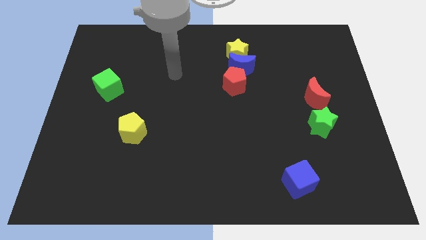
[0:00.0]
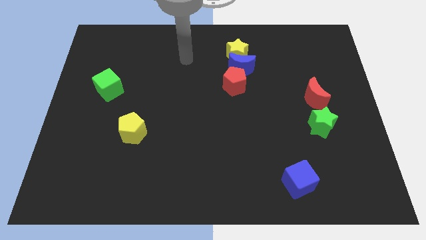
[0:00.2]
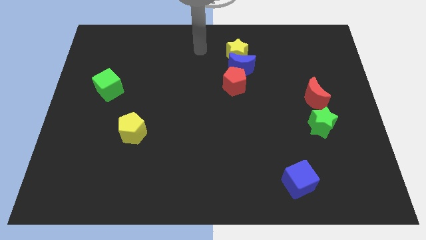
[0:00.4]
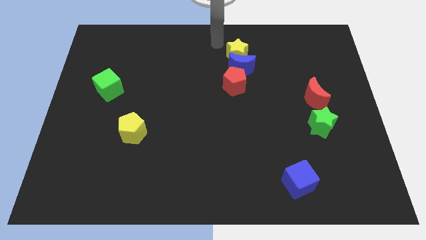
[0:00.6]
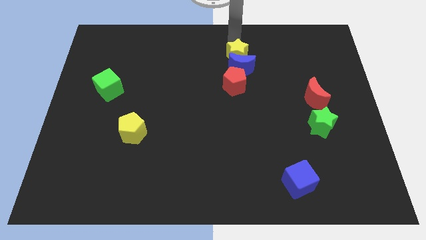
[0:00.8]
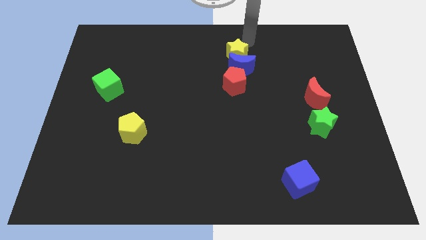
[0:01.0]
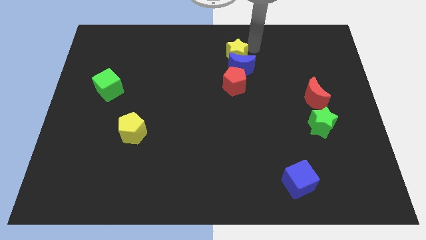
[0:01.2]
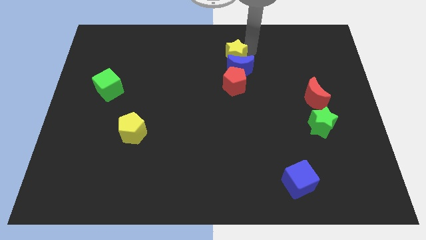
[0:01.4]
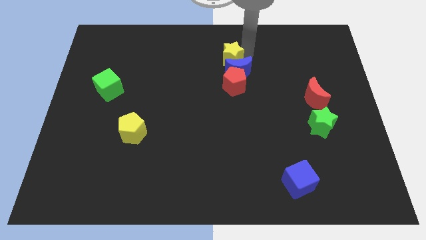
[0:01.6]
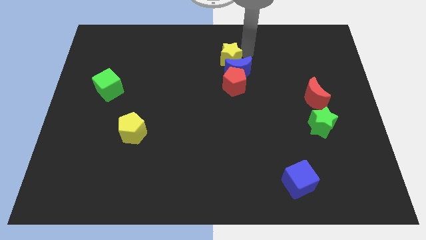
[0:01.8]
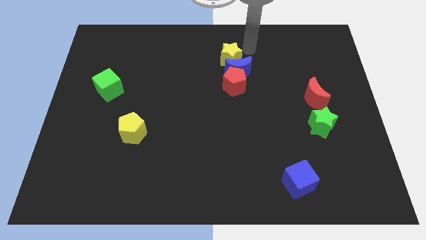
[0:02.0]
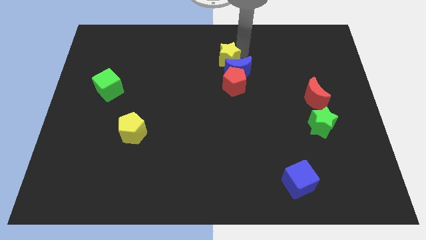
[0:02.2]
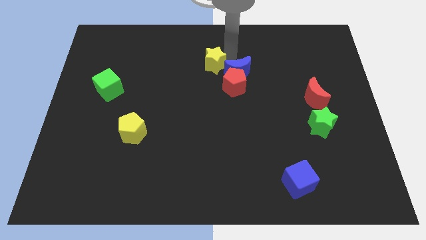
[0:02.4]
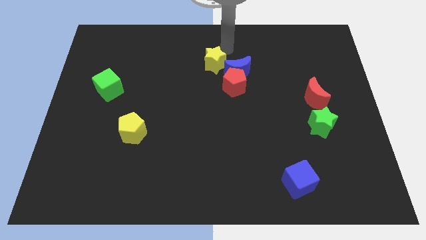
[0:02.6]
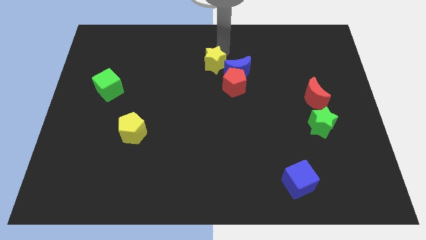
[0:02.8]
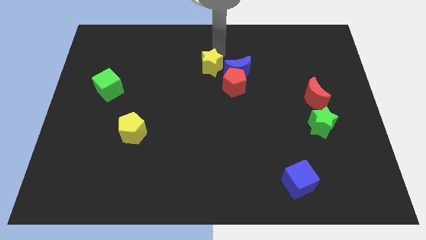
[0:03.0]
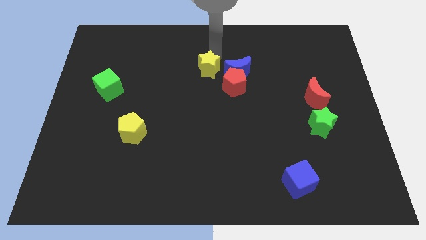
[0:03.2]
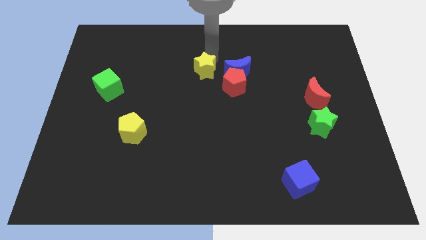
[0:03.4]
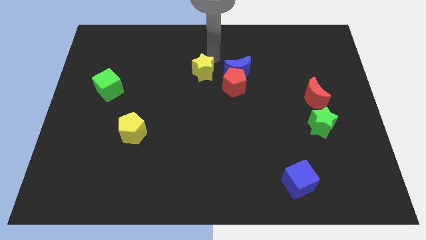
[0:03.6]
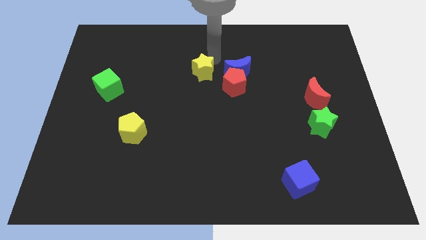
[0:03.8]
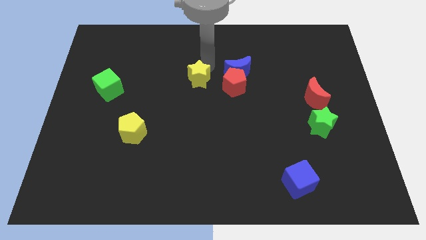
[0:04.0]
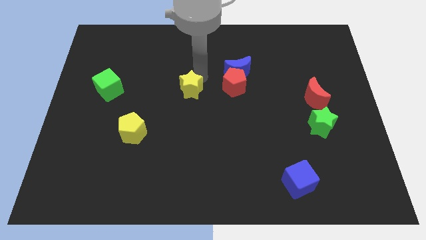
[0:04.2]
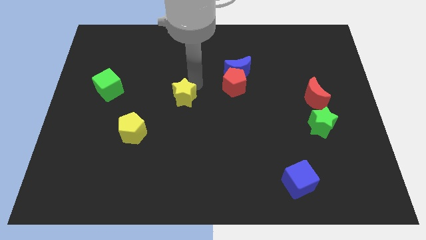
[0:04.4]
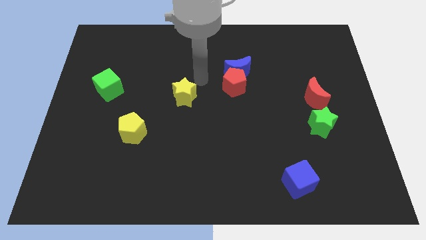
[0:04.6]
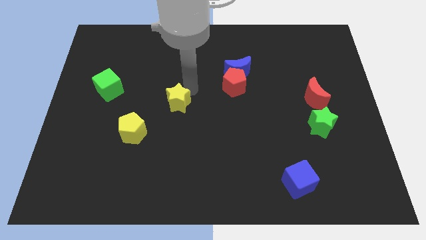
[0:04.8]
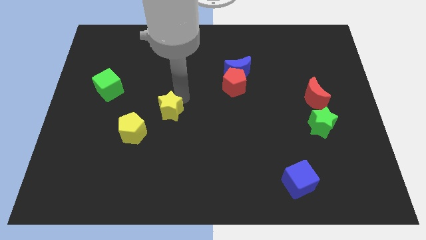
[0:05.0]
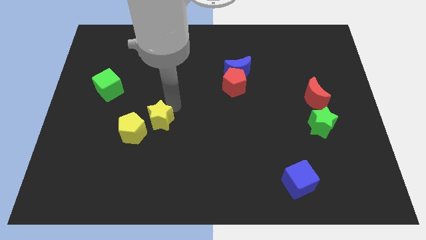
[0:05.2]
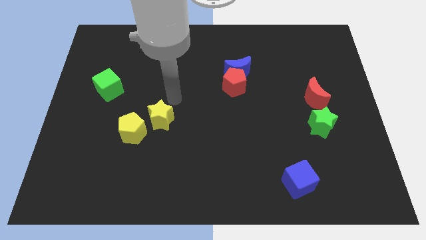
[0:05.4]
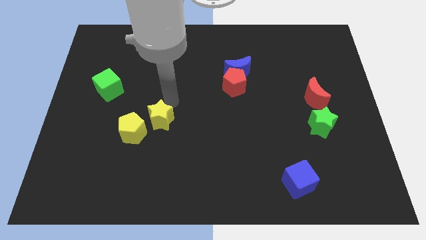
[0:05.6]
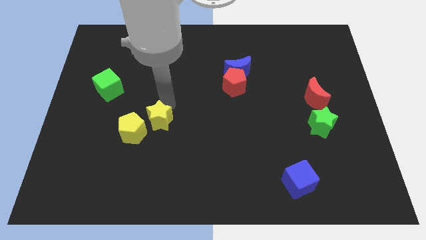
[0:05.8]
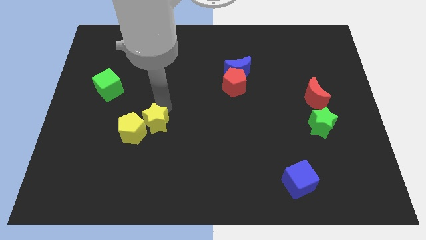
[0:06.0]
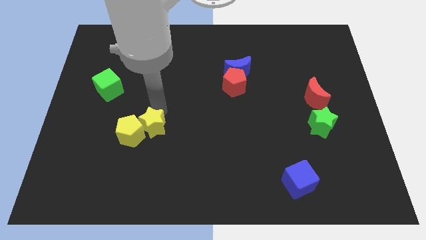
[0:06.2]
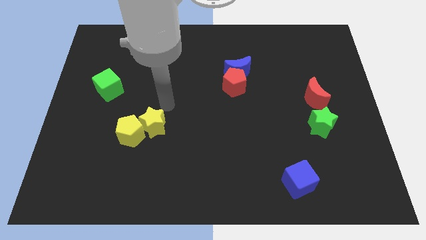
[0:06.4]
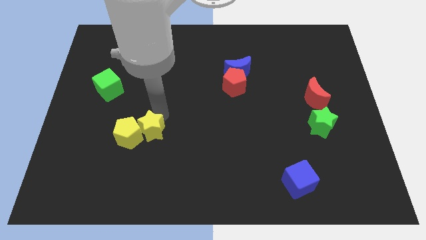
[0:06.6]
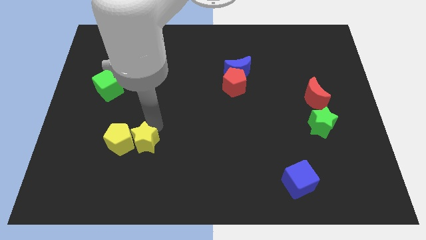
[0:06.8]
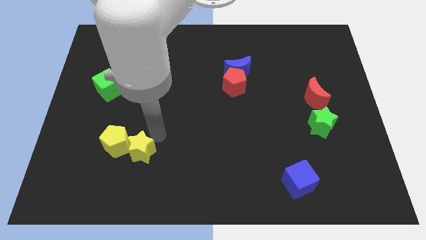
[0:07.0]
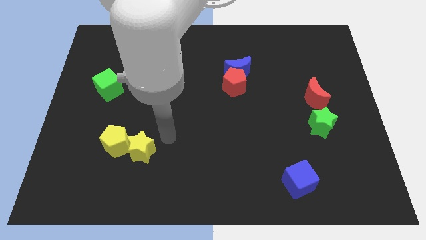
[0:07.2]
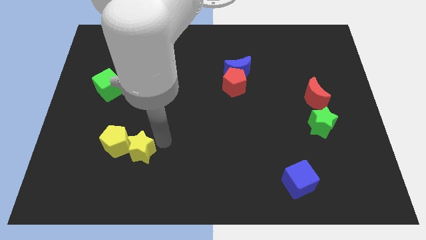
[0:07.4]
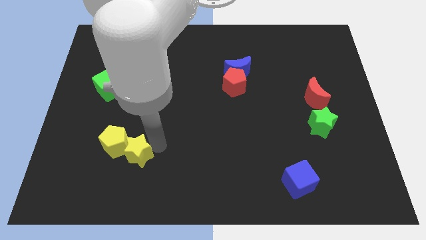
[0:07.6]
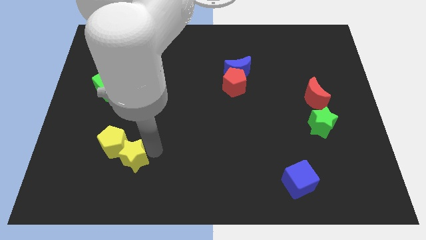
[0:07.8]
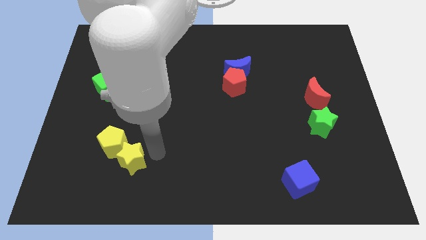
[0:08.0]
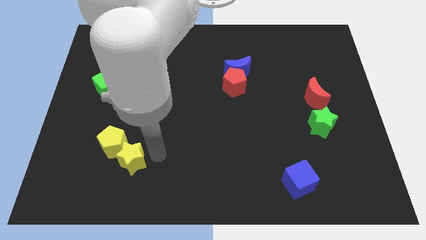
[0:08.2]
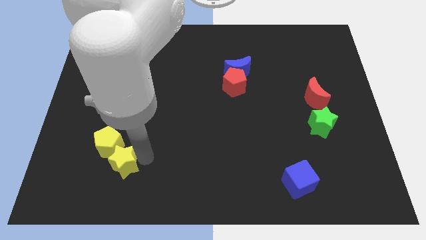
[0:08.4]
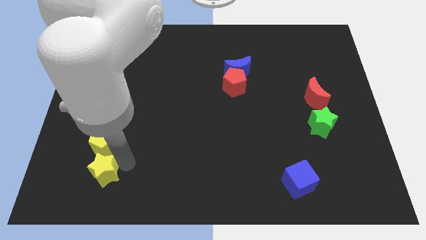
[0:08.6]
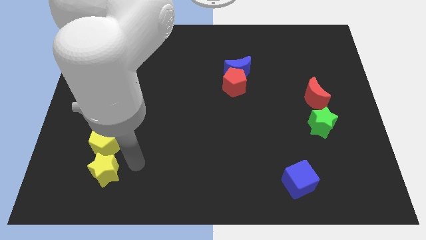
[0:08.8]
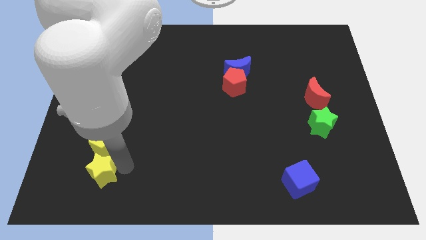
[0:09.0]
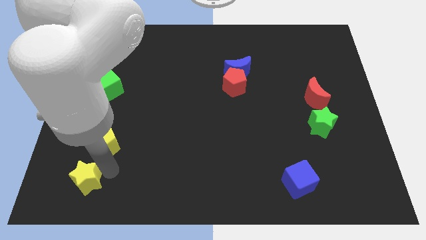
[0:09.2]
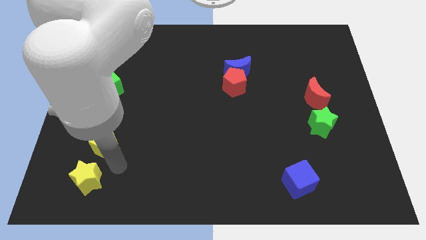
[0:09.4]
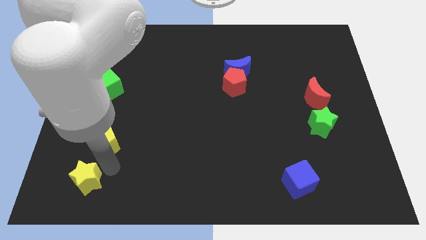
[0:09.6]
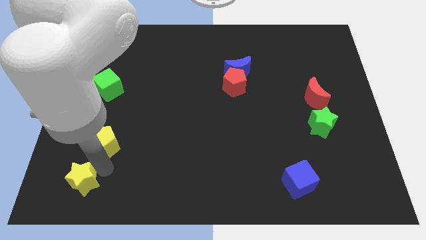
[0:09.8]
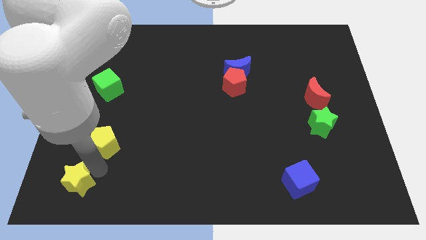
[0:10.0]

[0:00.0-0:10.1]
move the yellow star to the bottom left

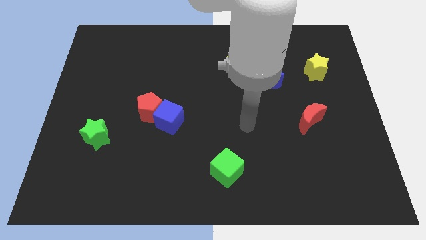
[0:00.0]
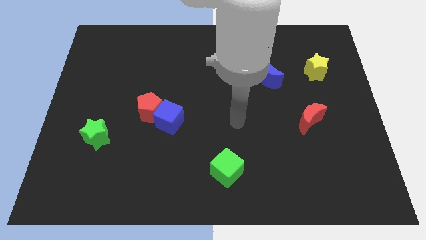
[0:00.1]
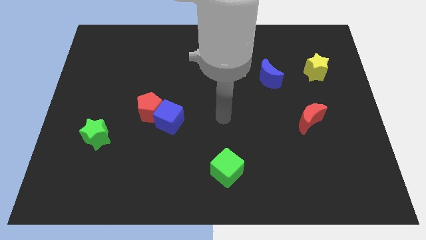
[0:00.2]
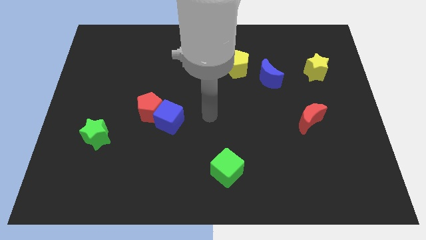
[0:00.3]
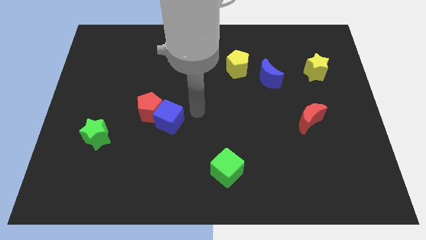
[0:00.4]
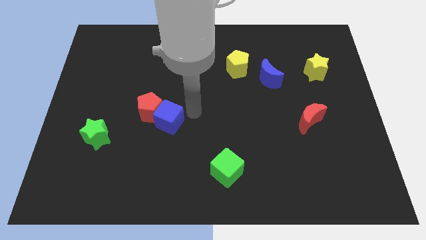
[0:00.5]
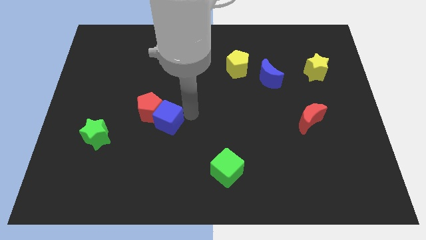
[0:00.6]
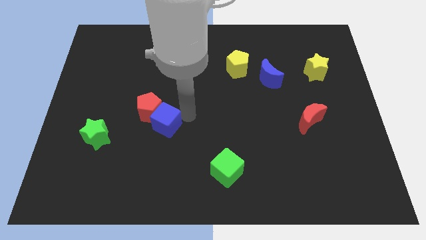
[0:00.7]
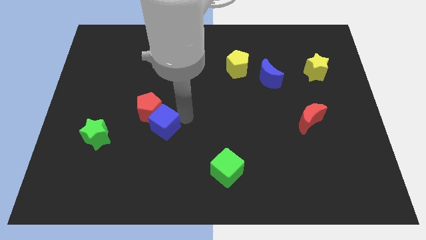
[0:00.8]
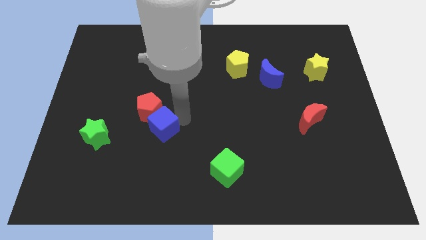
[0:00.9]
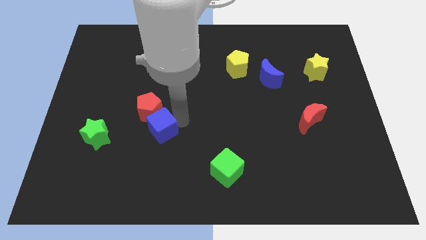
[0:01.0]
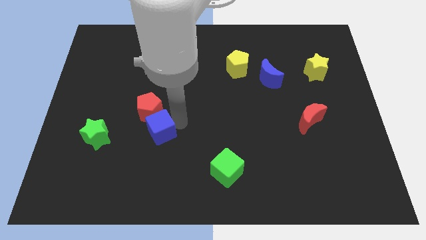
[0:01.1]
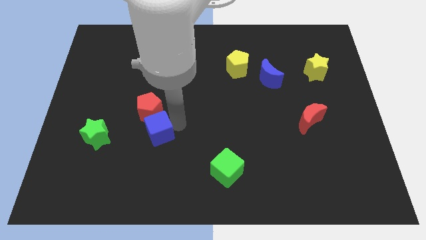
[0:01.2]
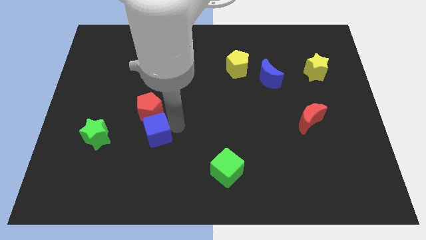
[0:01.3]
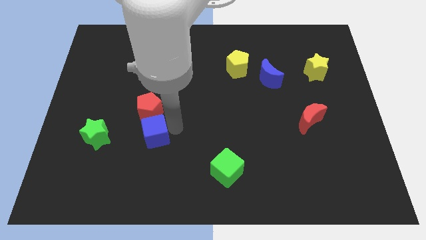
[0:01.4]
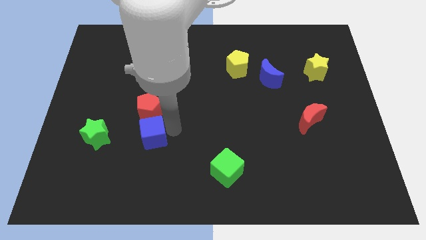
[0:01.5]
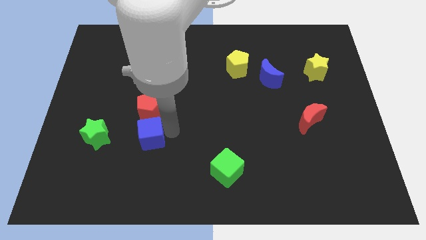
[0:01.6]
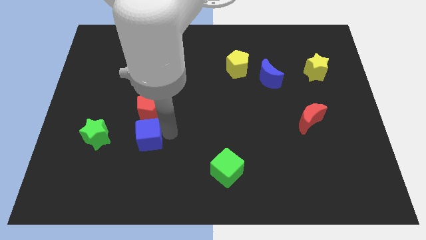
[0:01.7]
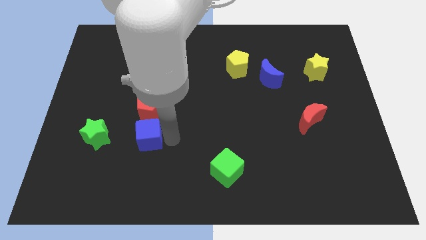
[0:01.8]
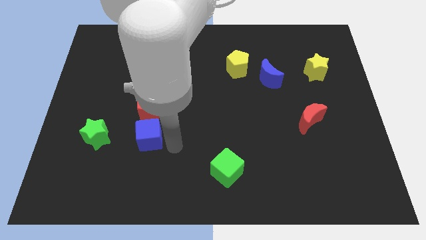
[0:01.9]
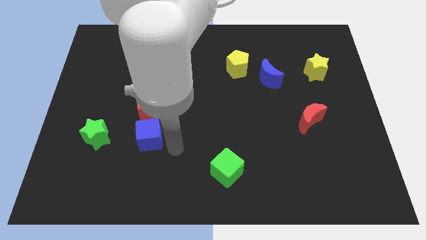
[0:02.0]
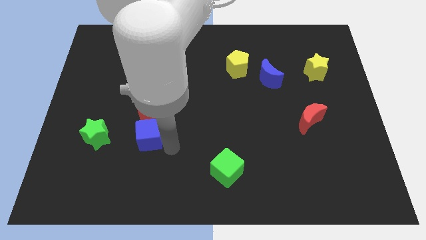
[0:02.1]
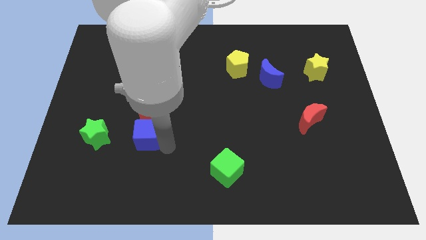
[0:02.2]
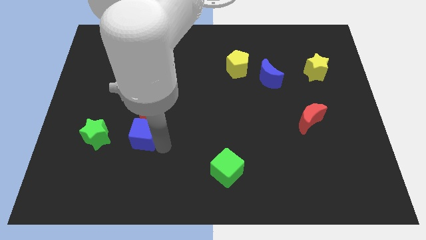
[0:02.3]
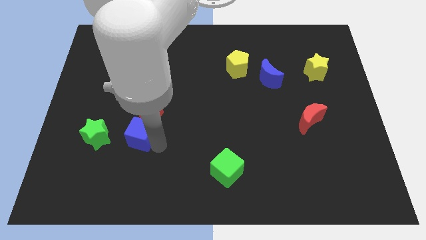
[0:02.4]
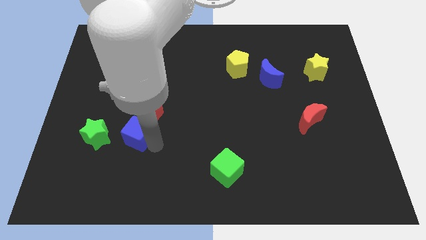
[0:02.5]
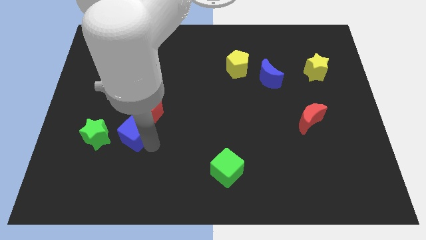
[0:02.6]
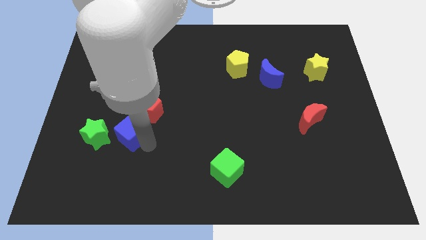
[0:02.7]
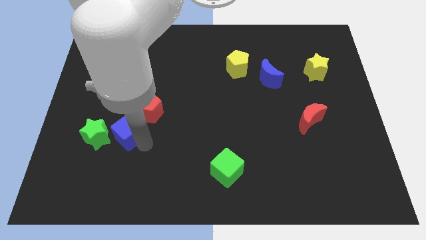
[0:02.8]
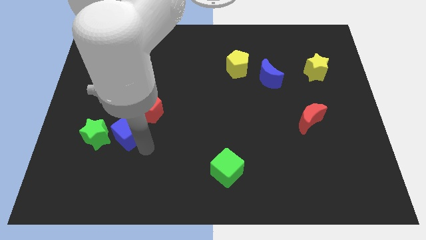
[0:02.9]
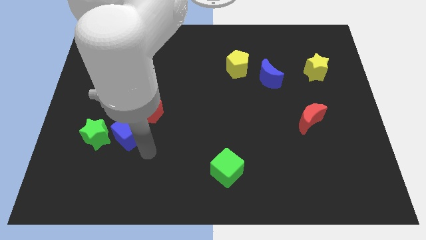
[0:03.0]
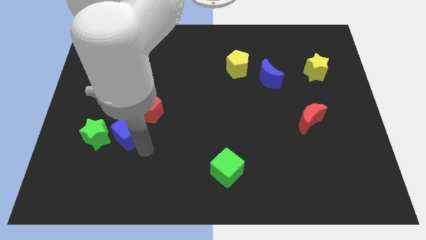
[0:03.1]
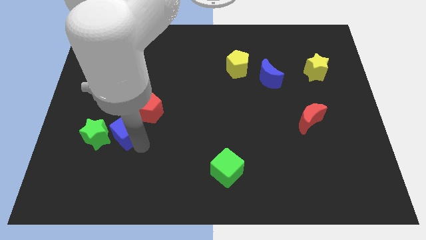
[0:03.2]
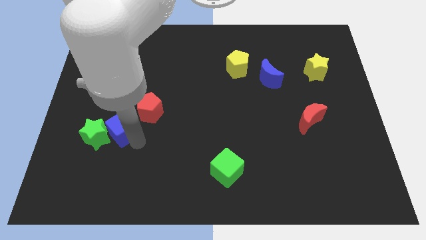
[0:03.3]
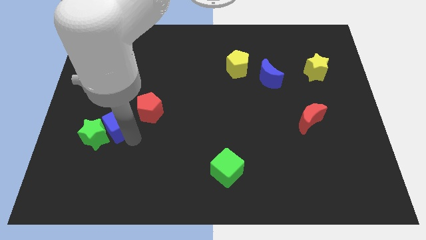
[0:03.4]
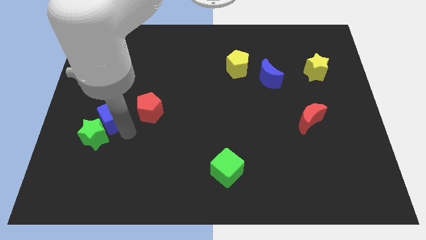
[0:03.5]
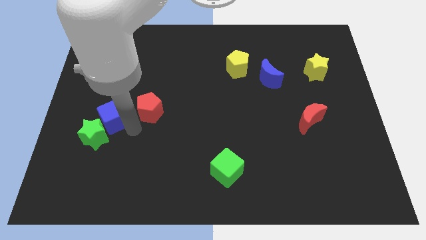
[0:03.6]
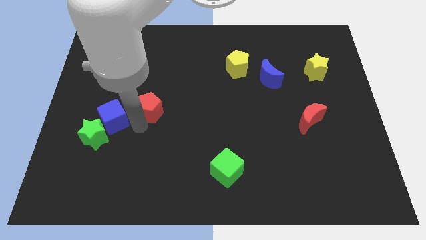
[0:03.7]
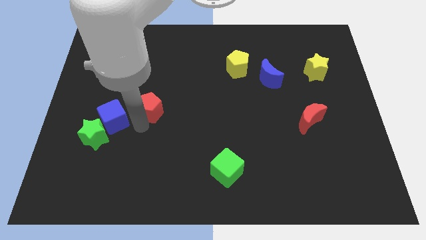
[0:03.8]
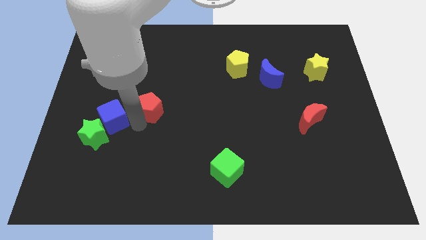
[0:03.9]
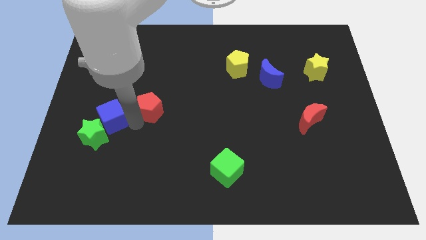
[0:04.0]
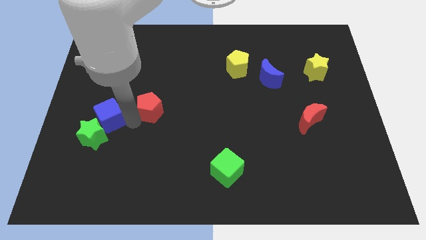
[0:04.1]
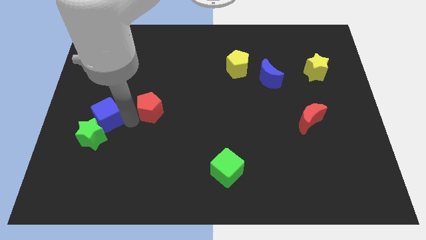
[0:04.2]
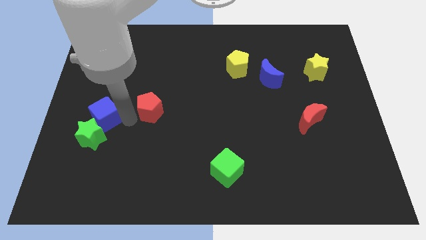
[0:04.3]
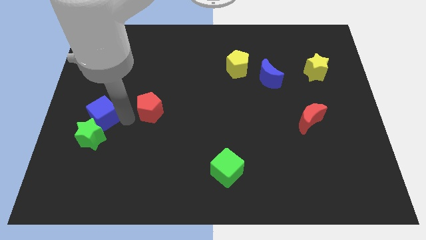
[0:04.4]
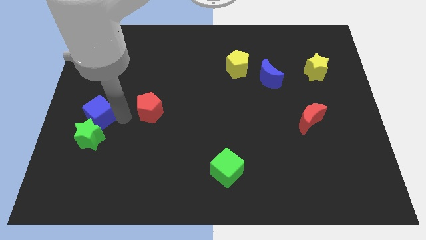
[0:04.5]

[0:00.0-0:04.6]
slide the blue cube to the left side
